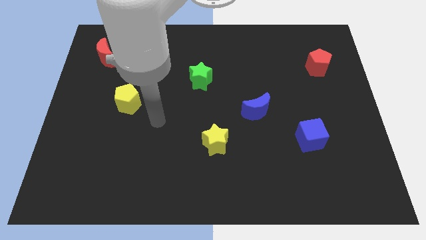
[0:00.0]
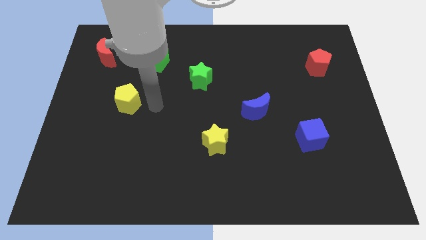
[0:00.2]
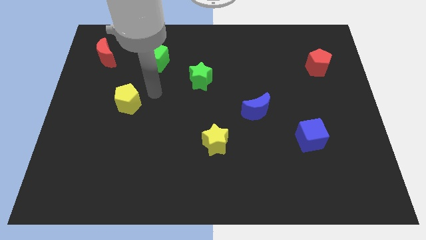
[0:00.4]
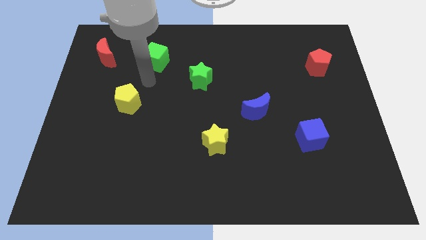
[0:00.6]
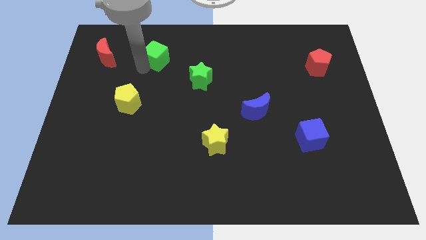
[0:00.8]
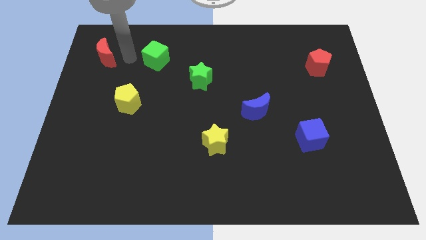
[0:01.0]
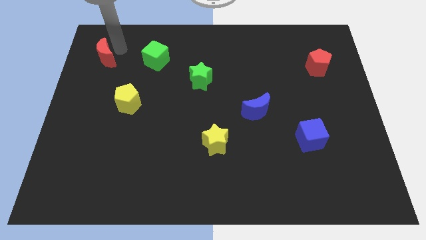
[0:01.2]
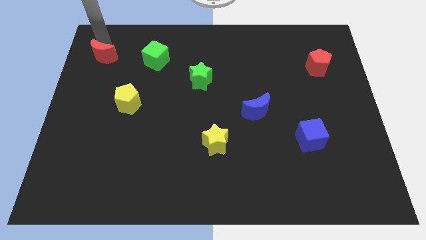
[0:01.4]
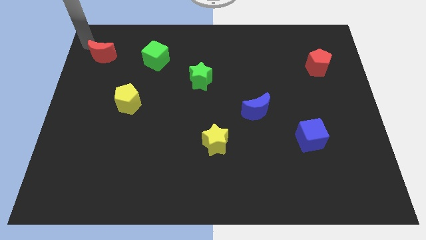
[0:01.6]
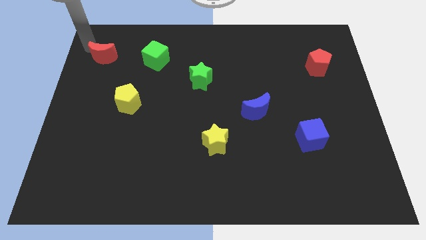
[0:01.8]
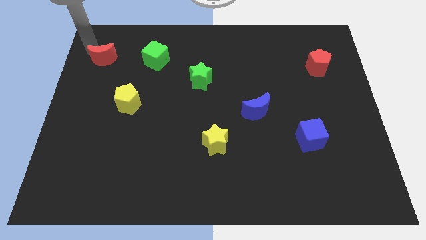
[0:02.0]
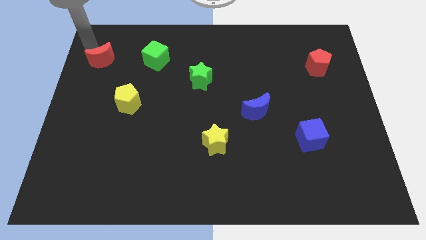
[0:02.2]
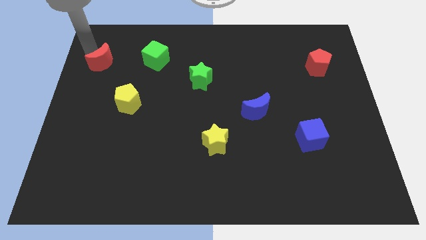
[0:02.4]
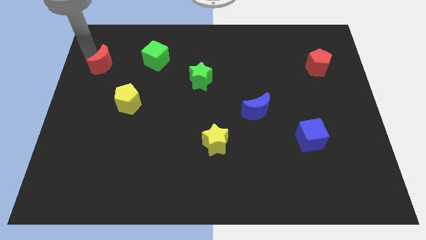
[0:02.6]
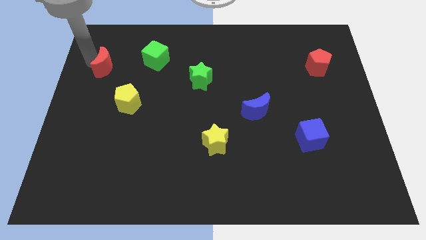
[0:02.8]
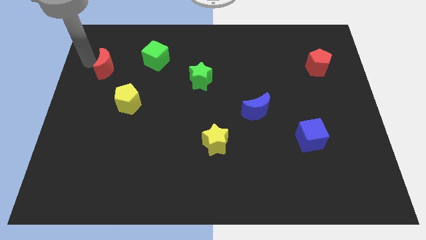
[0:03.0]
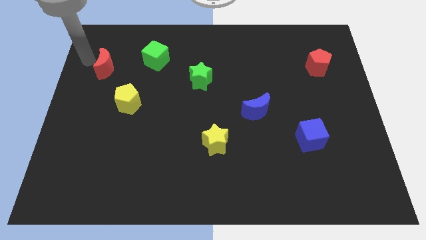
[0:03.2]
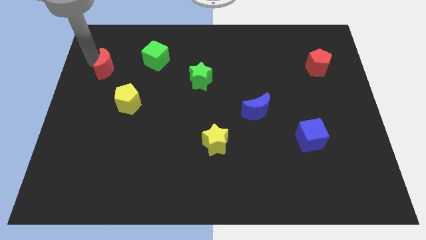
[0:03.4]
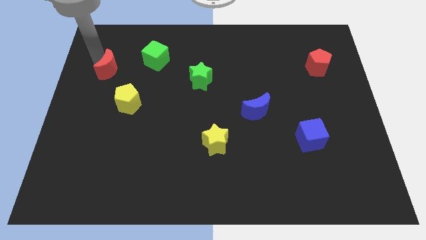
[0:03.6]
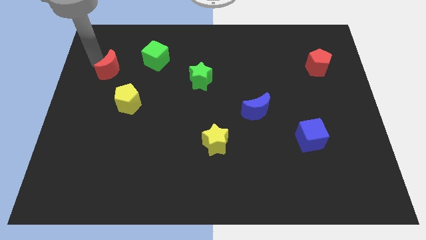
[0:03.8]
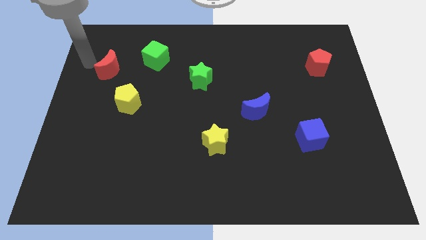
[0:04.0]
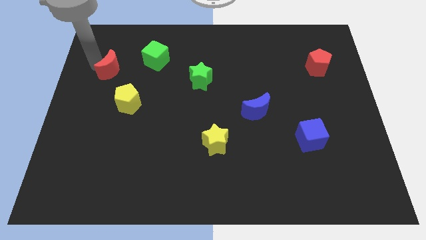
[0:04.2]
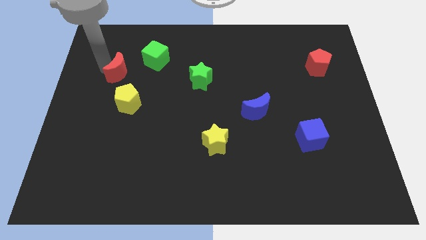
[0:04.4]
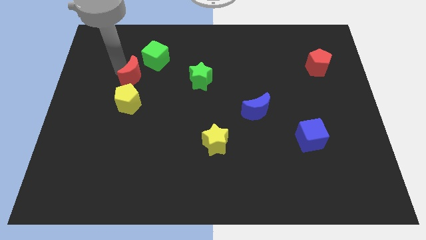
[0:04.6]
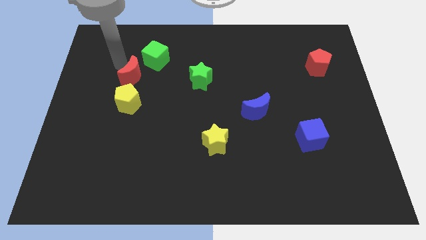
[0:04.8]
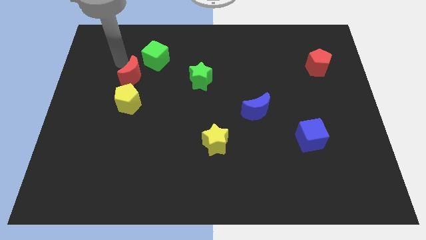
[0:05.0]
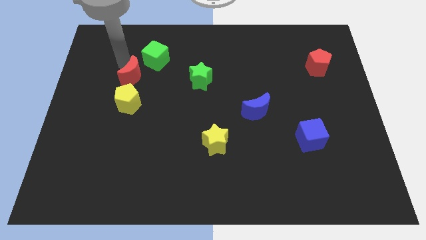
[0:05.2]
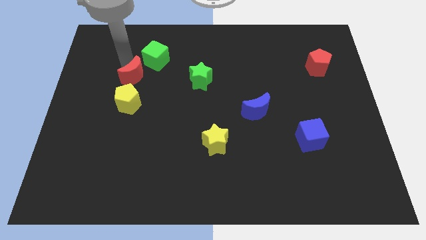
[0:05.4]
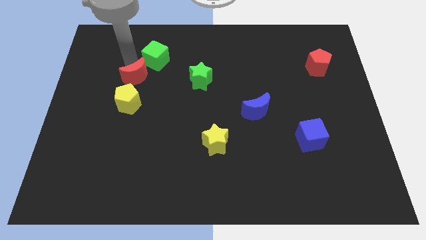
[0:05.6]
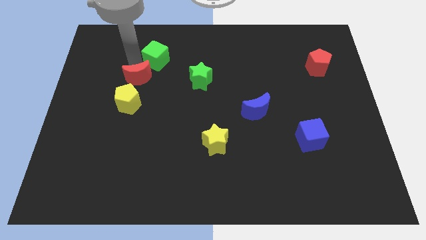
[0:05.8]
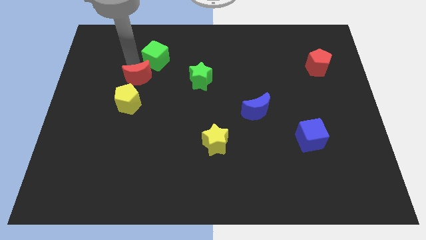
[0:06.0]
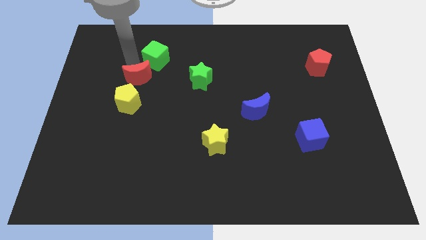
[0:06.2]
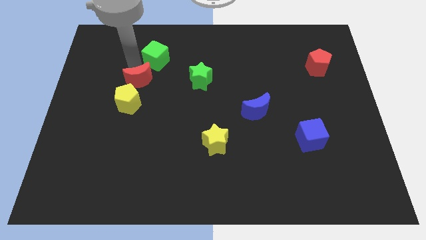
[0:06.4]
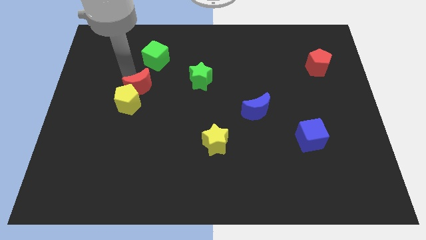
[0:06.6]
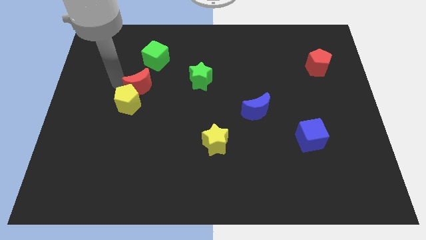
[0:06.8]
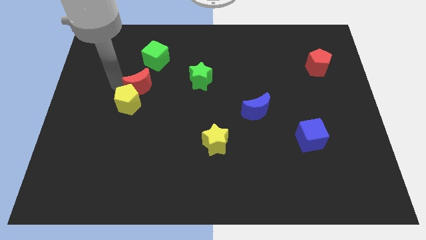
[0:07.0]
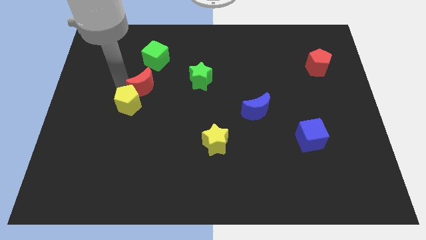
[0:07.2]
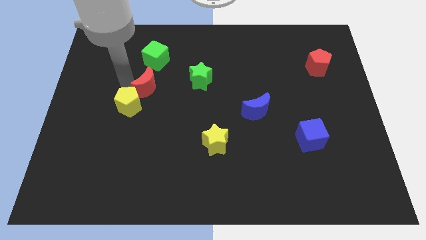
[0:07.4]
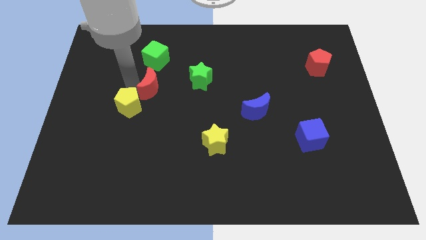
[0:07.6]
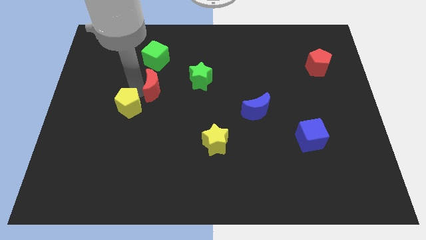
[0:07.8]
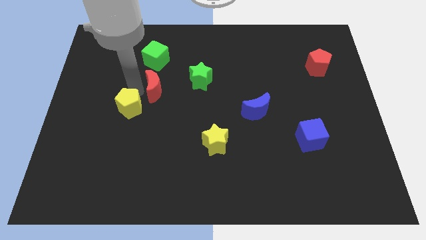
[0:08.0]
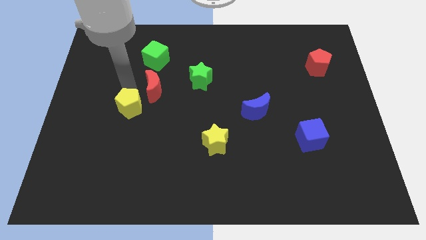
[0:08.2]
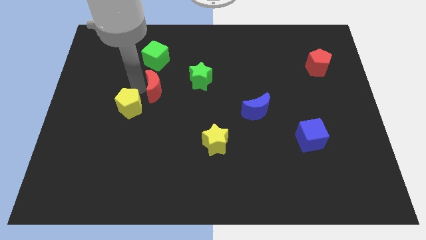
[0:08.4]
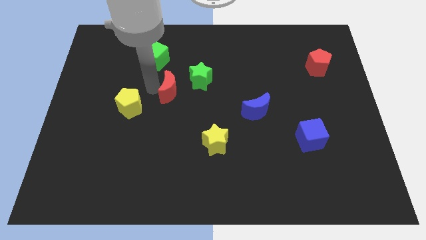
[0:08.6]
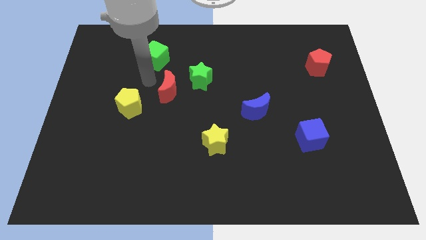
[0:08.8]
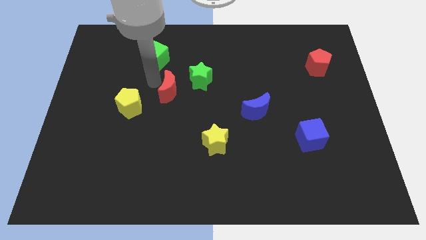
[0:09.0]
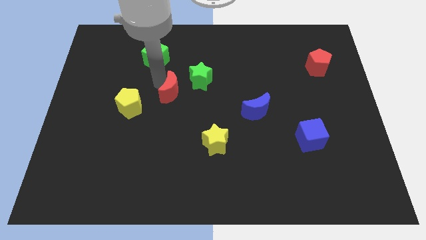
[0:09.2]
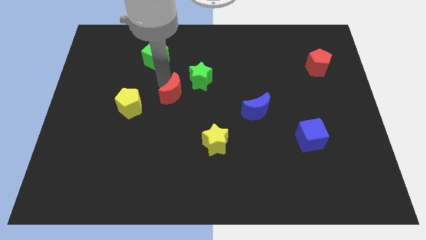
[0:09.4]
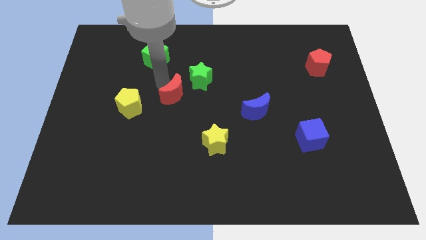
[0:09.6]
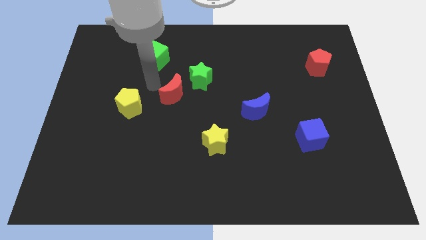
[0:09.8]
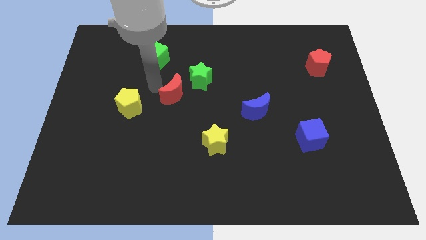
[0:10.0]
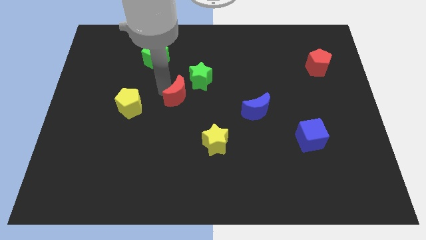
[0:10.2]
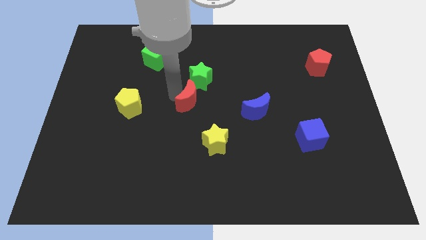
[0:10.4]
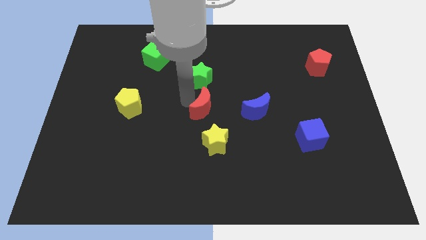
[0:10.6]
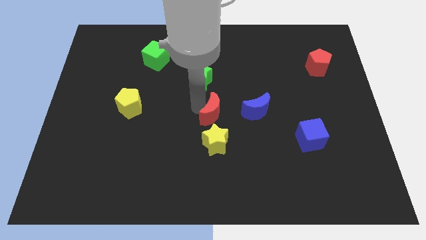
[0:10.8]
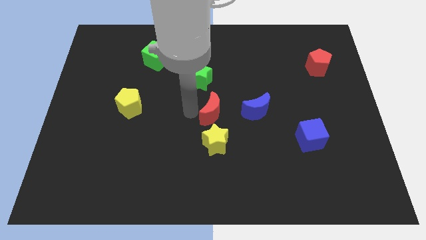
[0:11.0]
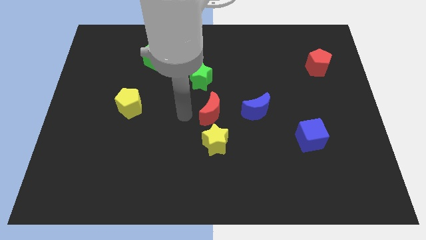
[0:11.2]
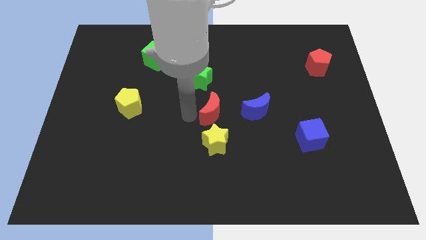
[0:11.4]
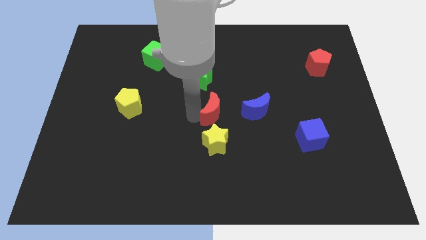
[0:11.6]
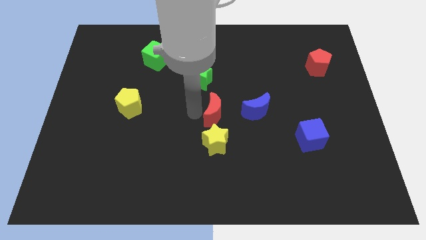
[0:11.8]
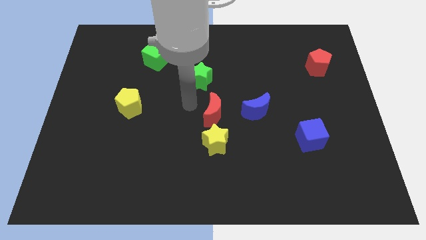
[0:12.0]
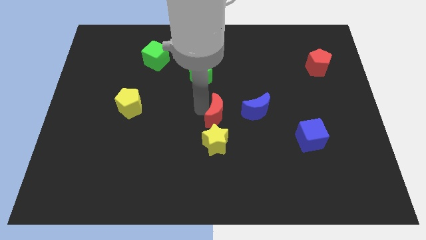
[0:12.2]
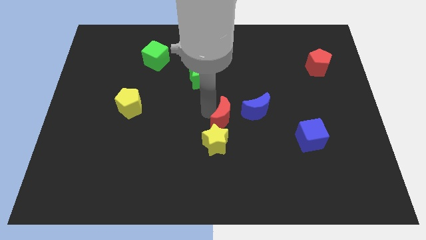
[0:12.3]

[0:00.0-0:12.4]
push the red moon to the top right of the yellow star
